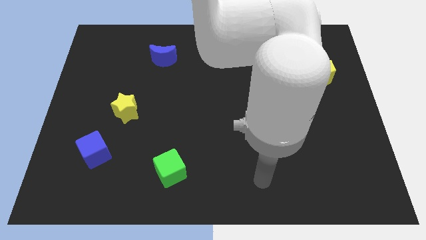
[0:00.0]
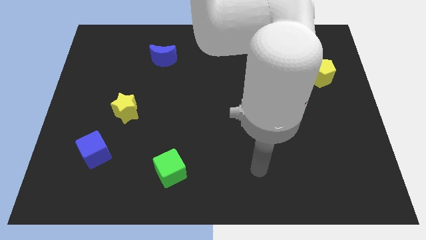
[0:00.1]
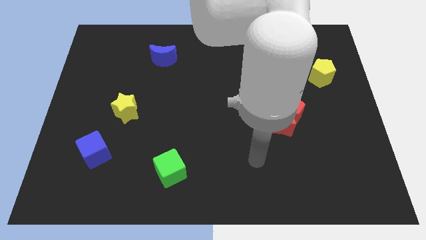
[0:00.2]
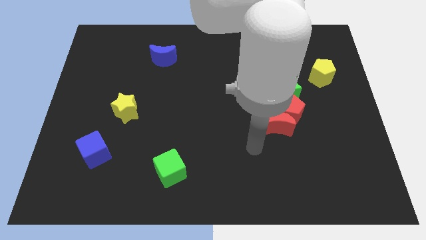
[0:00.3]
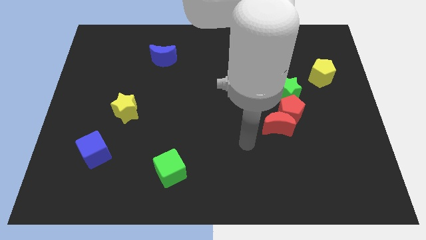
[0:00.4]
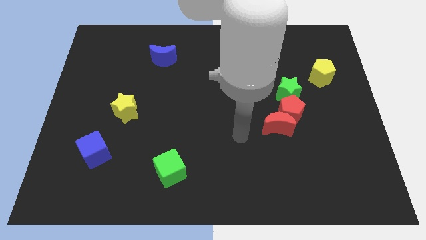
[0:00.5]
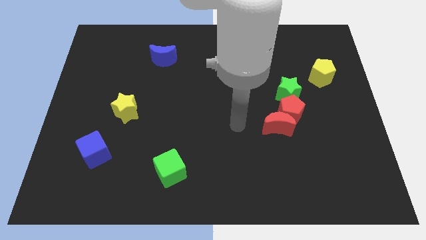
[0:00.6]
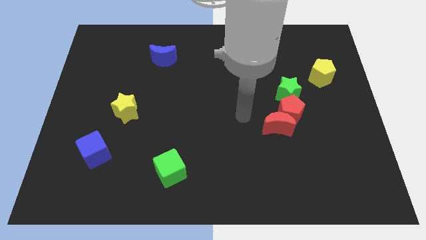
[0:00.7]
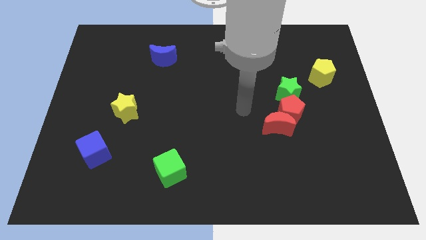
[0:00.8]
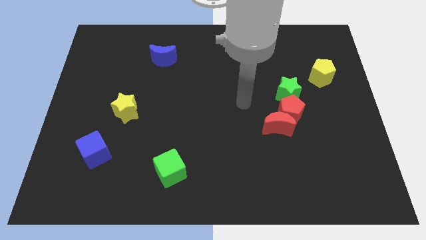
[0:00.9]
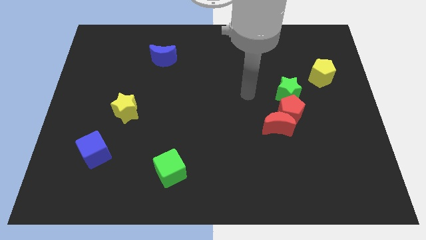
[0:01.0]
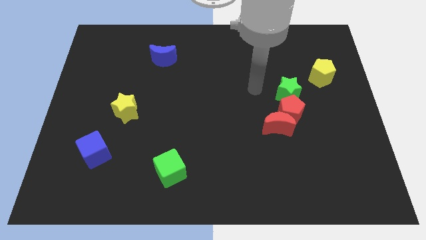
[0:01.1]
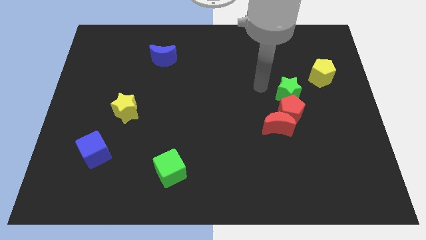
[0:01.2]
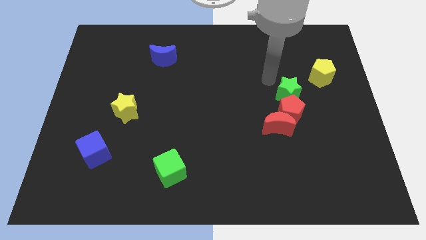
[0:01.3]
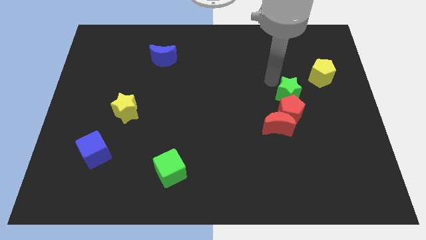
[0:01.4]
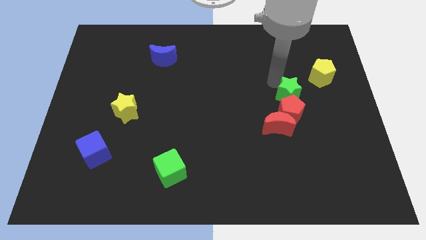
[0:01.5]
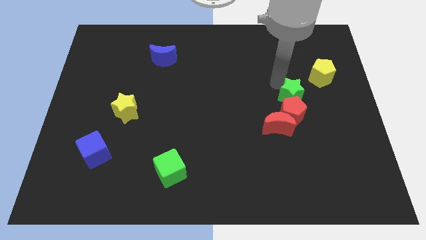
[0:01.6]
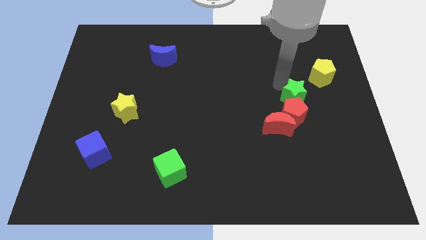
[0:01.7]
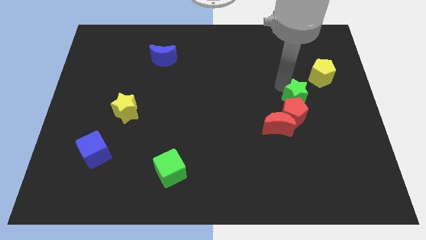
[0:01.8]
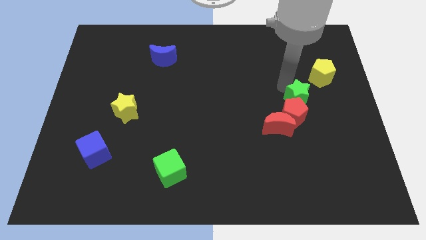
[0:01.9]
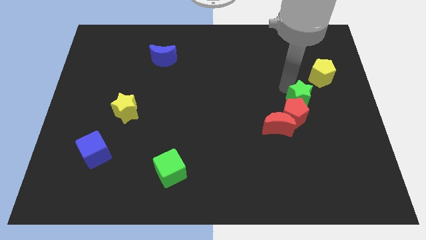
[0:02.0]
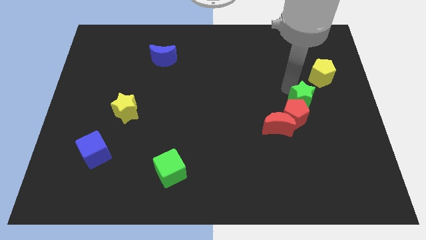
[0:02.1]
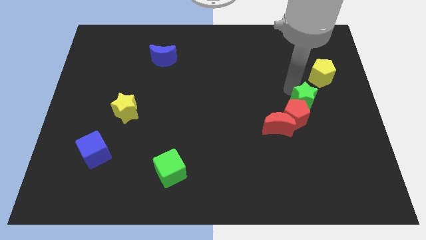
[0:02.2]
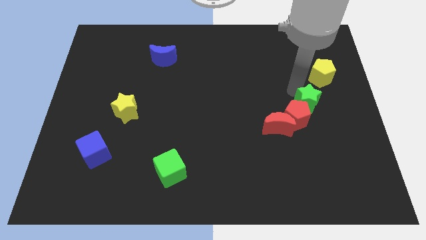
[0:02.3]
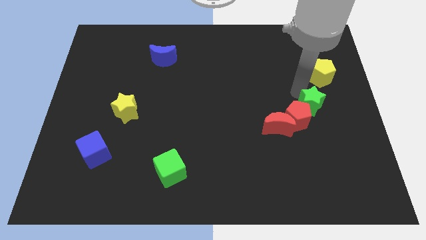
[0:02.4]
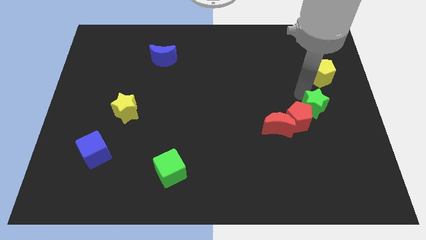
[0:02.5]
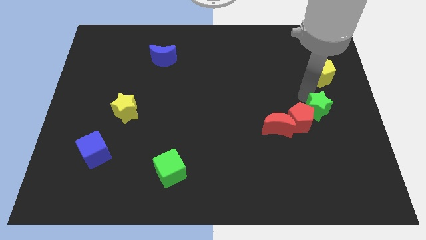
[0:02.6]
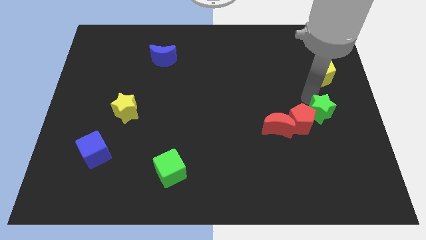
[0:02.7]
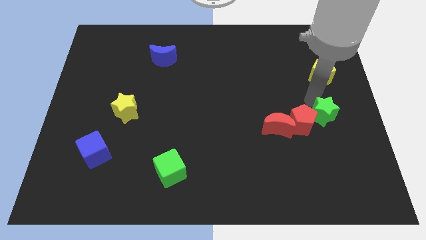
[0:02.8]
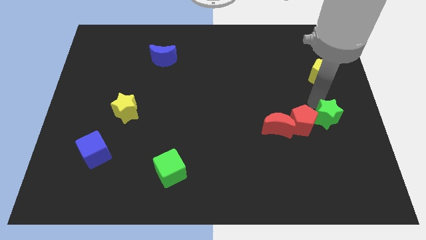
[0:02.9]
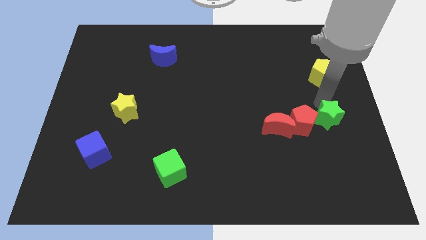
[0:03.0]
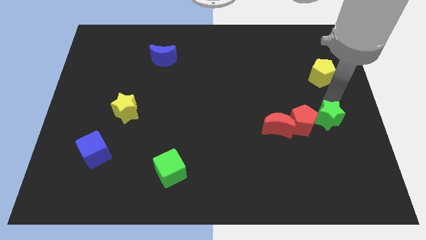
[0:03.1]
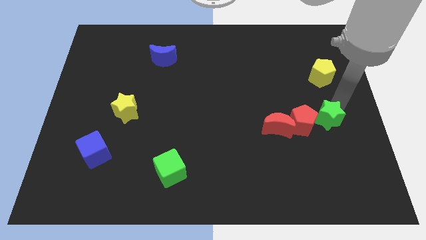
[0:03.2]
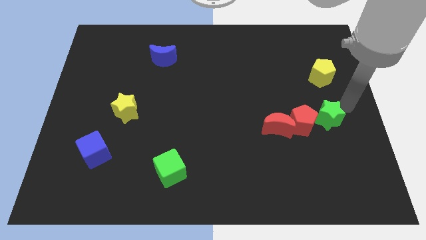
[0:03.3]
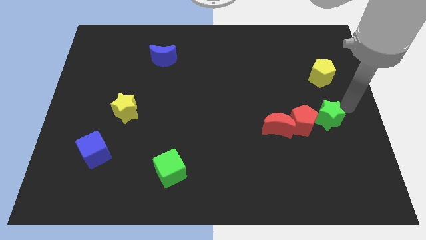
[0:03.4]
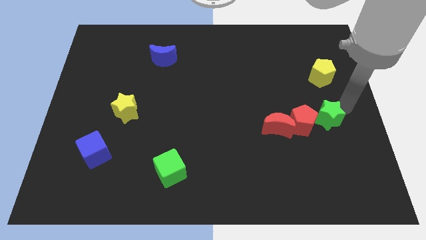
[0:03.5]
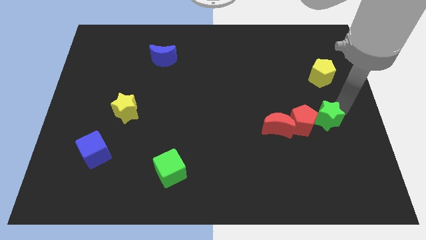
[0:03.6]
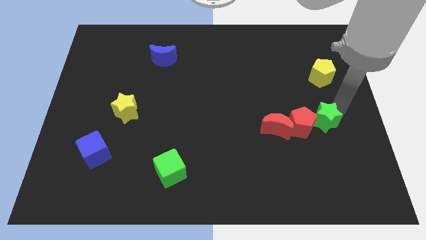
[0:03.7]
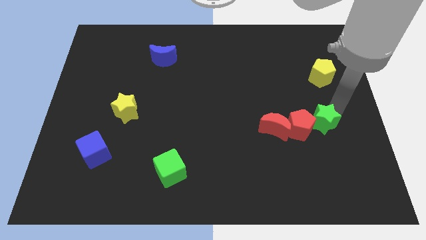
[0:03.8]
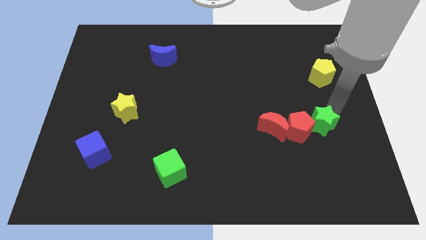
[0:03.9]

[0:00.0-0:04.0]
slightly push the green star downwards

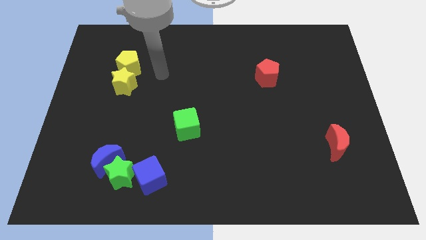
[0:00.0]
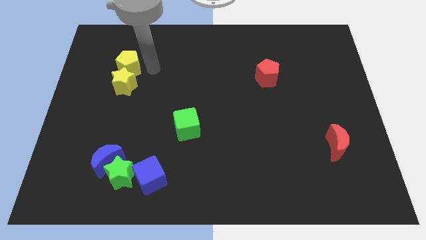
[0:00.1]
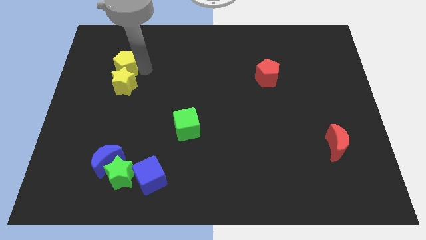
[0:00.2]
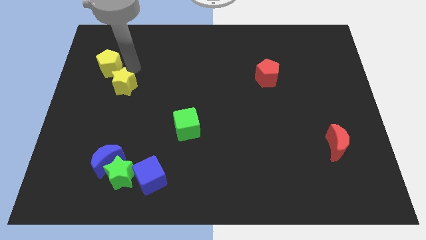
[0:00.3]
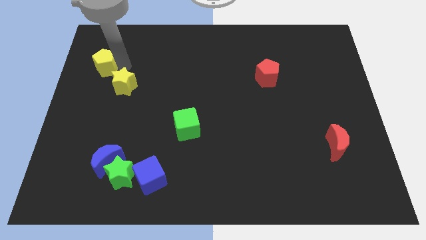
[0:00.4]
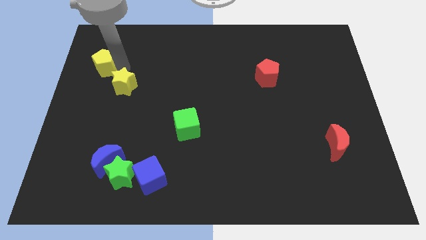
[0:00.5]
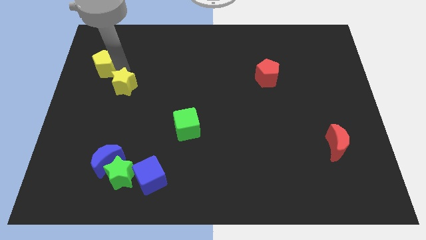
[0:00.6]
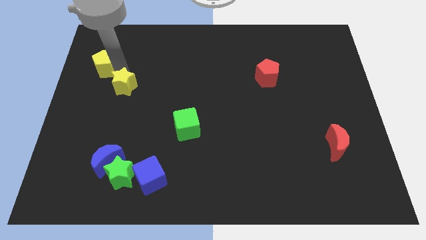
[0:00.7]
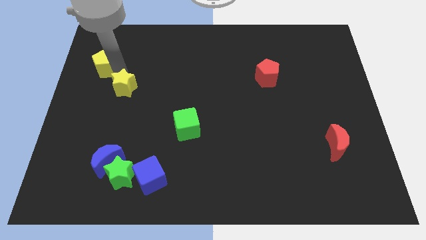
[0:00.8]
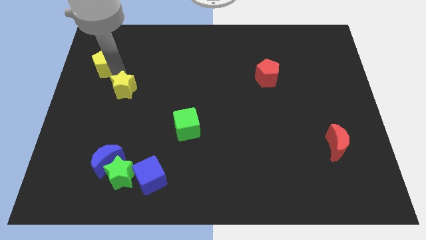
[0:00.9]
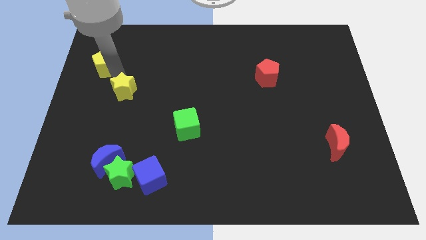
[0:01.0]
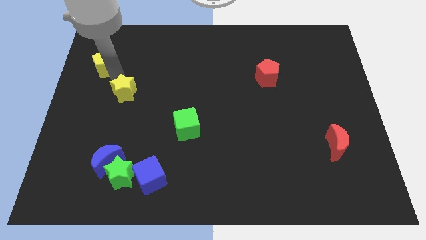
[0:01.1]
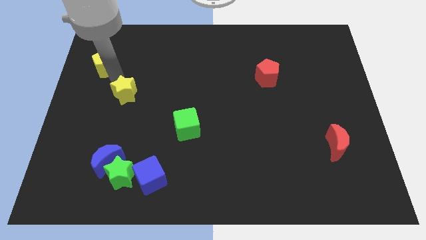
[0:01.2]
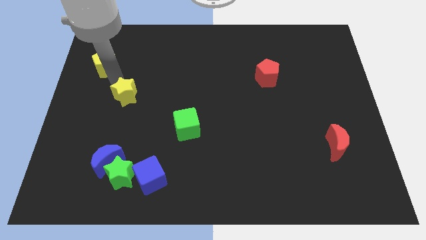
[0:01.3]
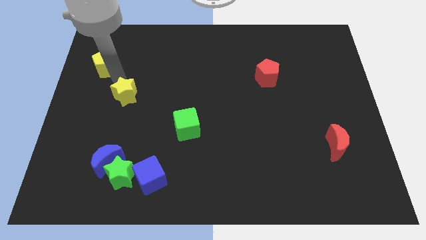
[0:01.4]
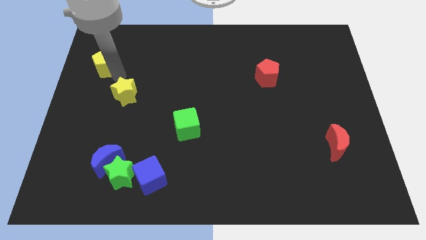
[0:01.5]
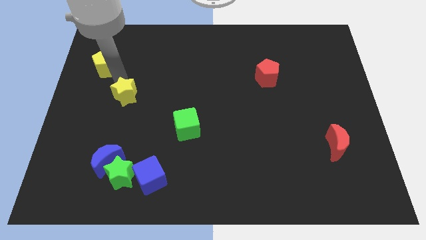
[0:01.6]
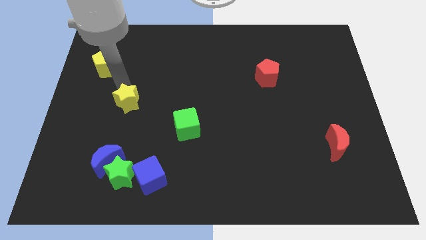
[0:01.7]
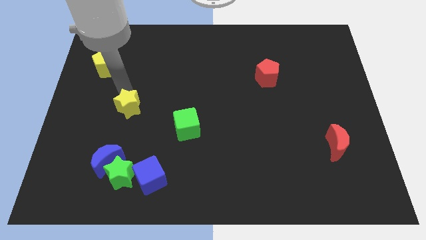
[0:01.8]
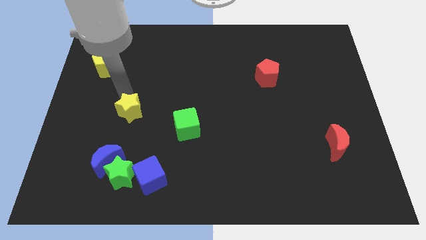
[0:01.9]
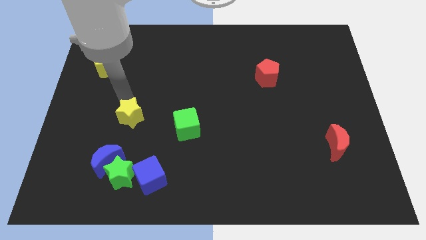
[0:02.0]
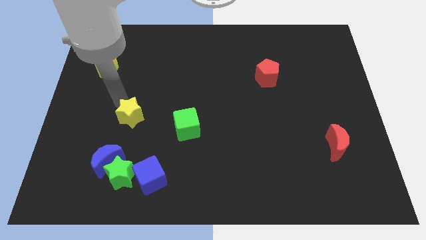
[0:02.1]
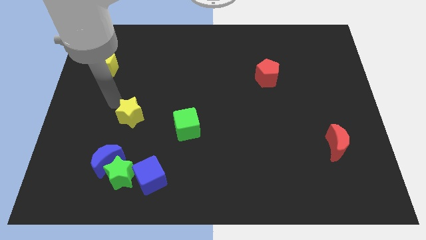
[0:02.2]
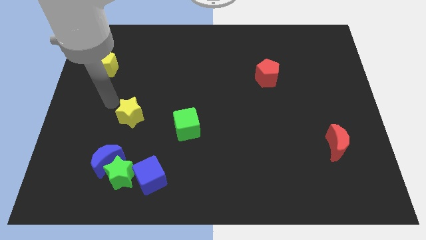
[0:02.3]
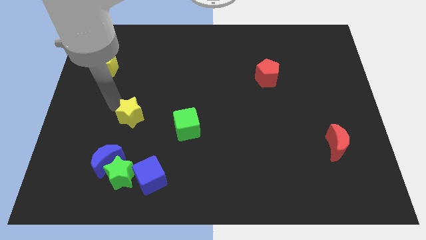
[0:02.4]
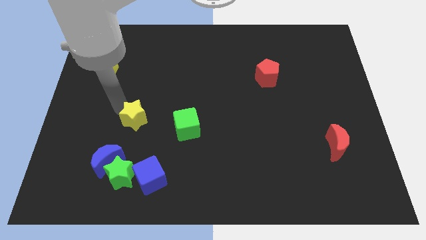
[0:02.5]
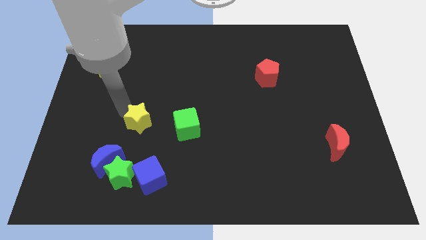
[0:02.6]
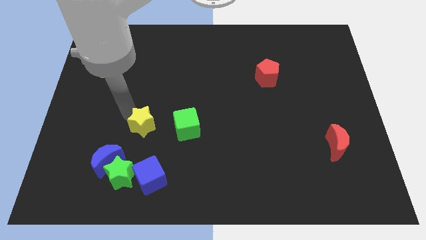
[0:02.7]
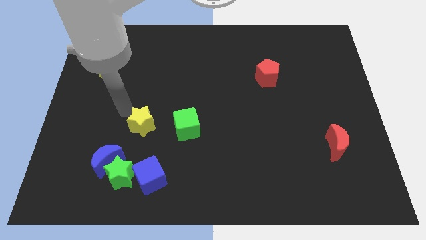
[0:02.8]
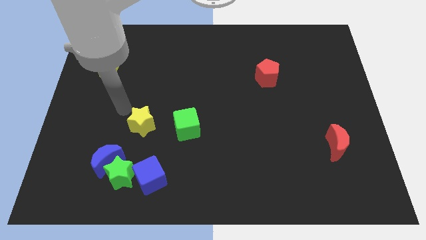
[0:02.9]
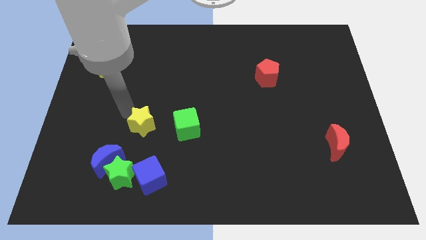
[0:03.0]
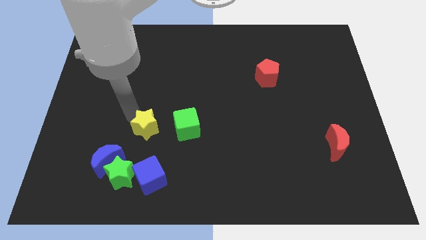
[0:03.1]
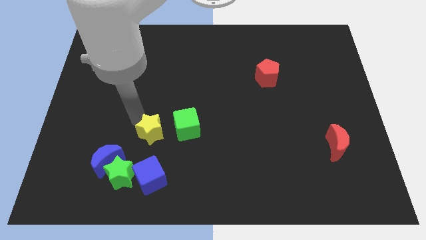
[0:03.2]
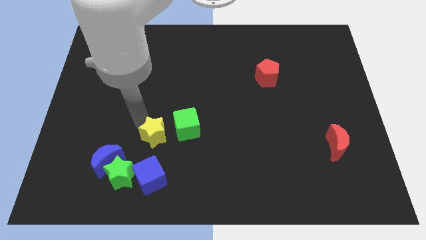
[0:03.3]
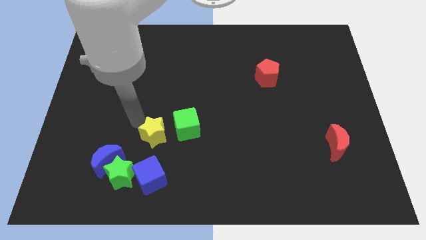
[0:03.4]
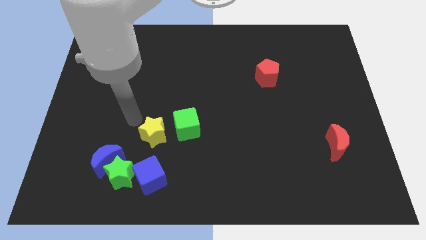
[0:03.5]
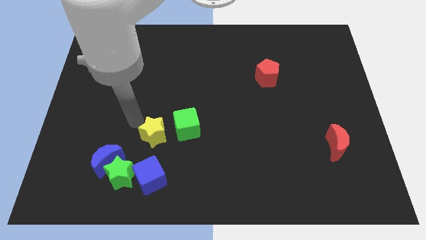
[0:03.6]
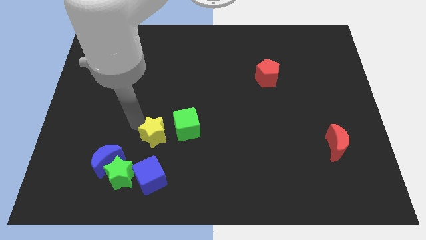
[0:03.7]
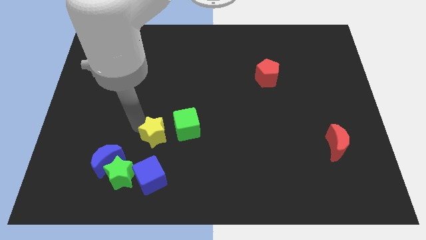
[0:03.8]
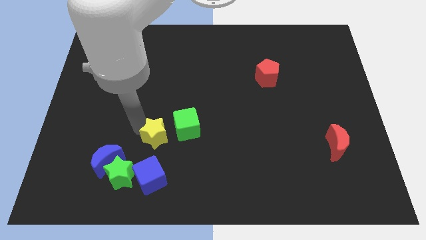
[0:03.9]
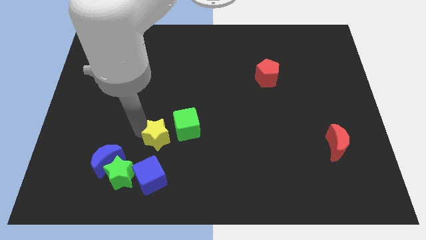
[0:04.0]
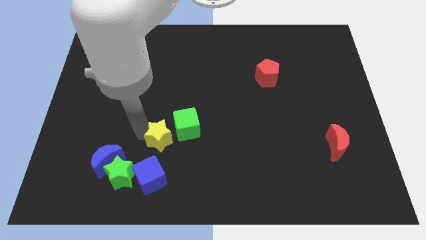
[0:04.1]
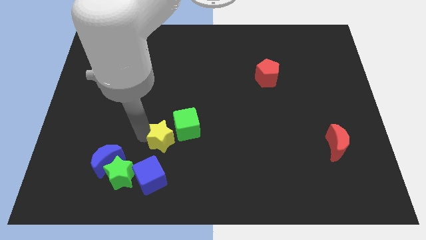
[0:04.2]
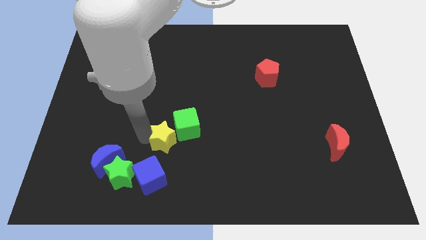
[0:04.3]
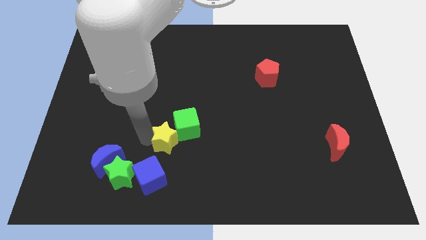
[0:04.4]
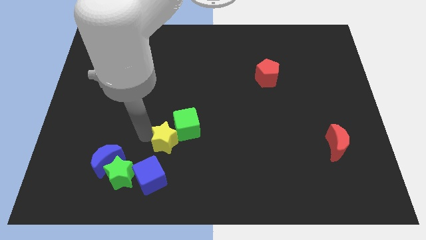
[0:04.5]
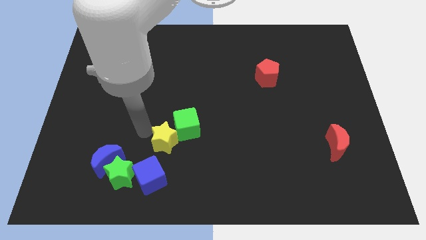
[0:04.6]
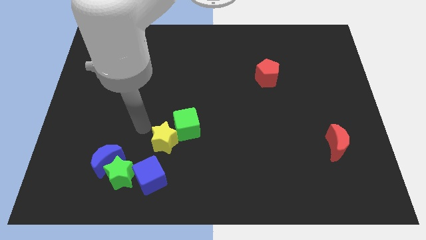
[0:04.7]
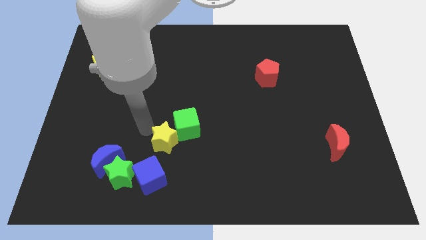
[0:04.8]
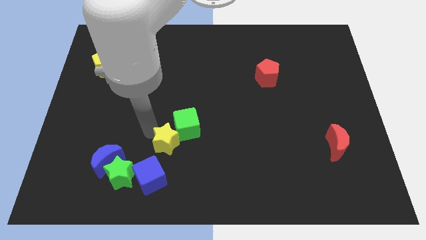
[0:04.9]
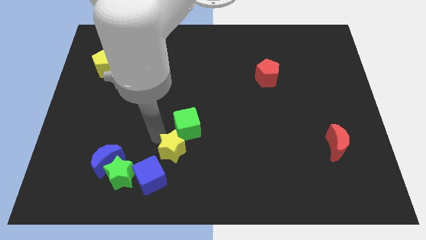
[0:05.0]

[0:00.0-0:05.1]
slide the yellow star downwards and then to the right
